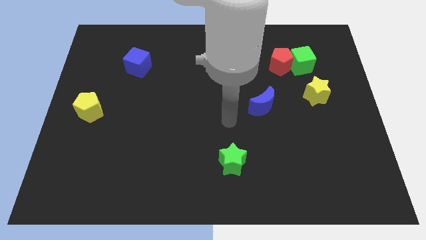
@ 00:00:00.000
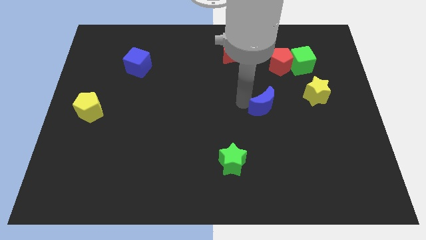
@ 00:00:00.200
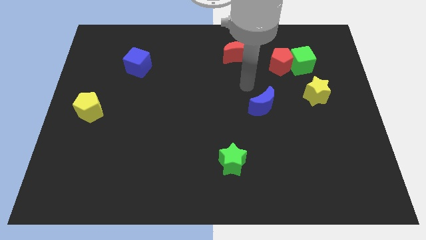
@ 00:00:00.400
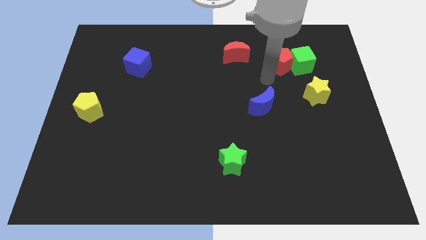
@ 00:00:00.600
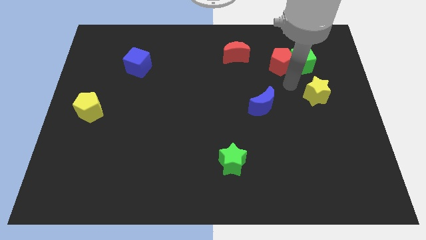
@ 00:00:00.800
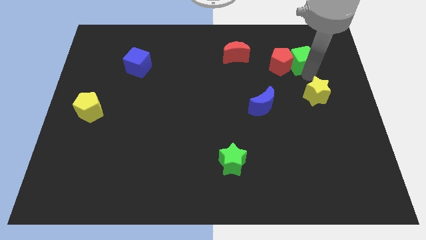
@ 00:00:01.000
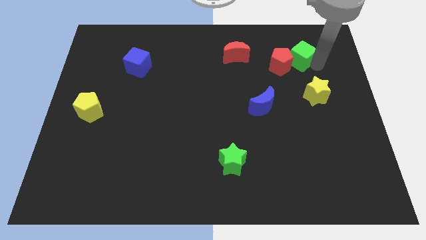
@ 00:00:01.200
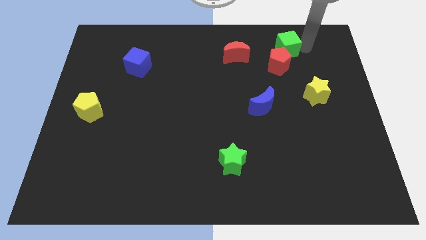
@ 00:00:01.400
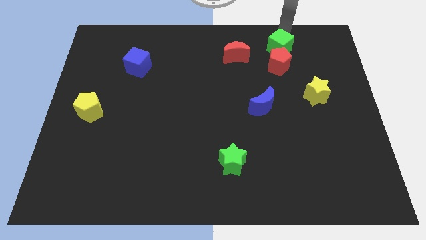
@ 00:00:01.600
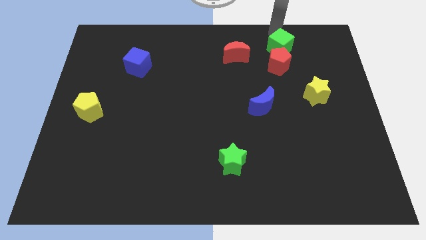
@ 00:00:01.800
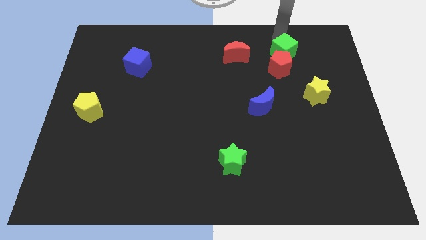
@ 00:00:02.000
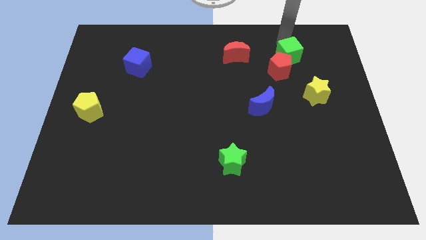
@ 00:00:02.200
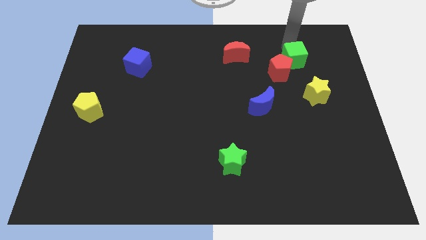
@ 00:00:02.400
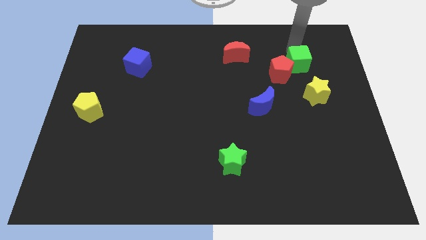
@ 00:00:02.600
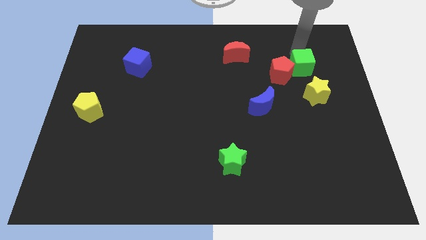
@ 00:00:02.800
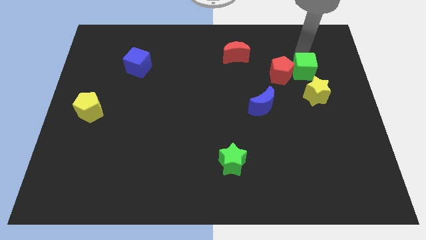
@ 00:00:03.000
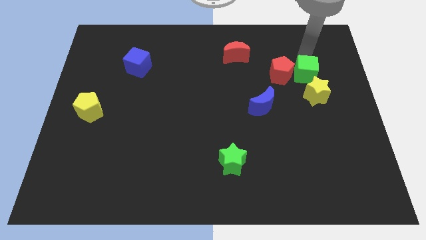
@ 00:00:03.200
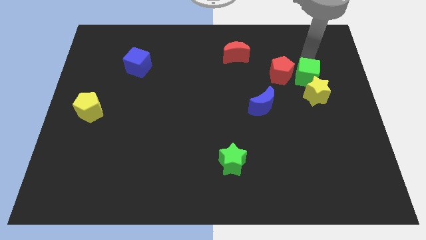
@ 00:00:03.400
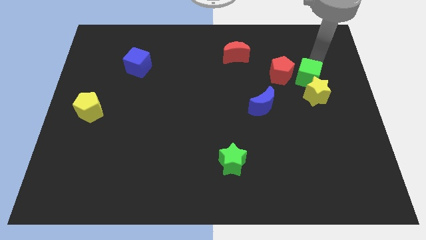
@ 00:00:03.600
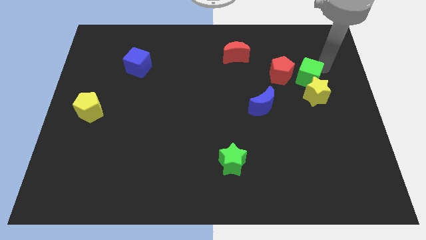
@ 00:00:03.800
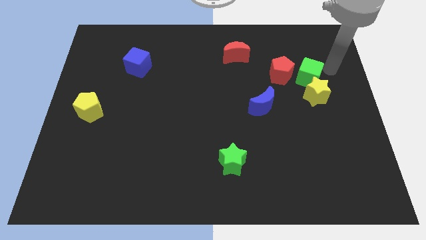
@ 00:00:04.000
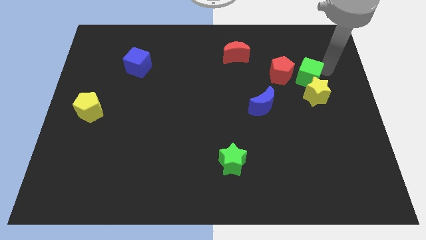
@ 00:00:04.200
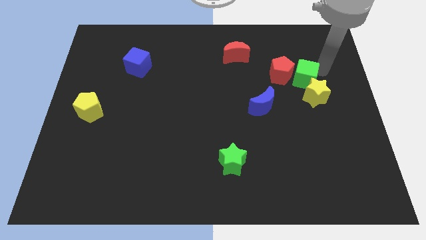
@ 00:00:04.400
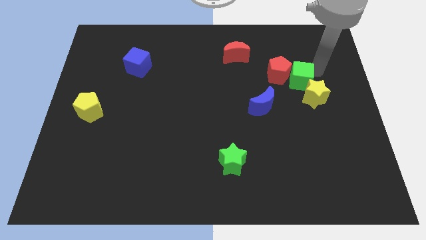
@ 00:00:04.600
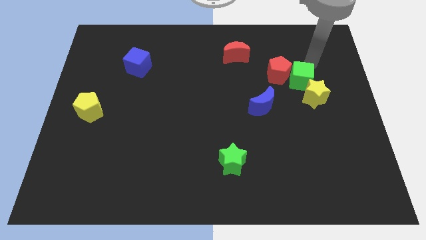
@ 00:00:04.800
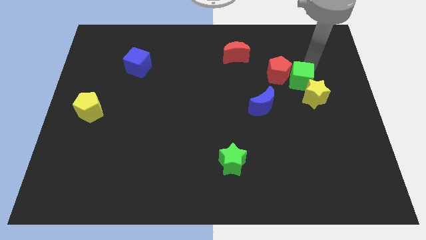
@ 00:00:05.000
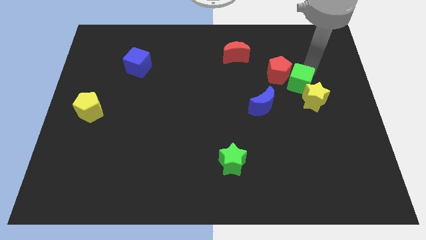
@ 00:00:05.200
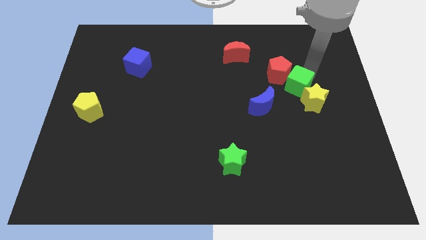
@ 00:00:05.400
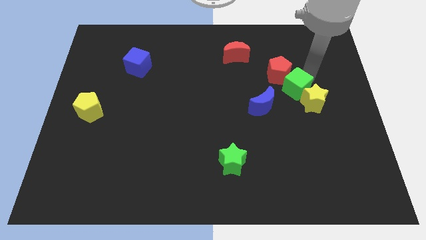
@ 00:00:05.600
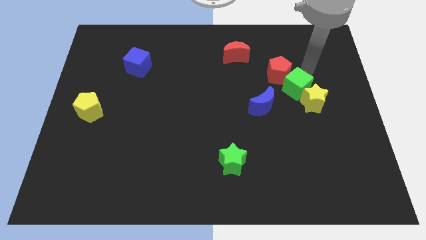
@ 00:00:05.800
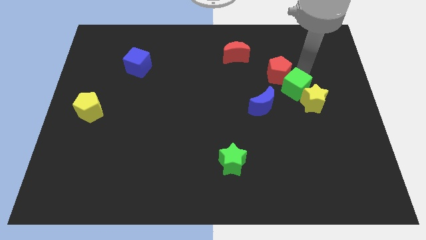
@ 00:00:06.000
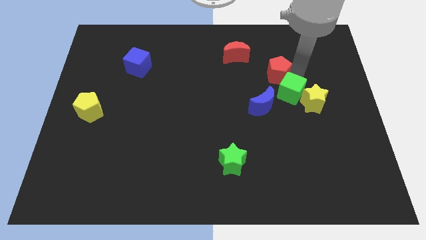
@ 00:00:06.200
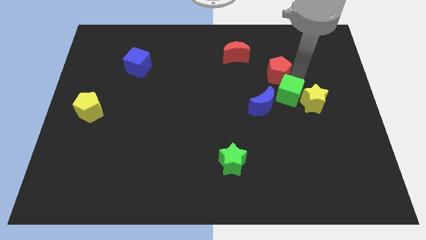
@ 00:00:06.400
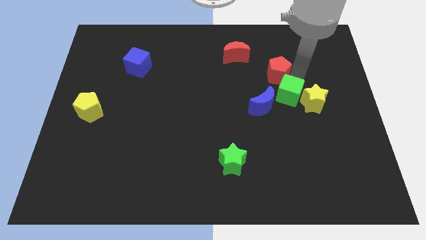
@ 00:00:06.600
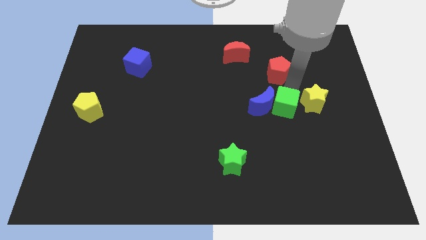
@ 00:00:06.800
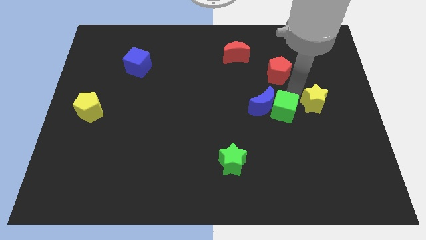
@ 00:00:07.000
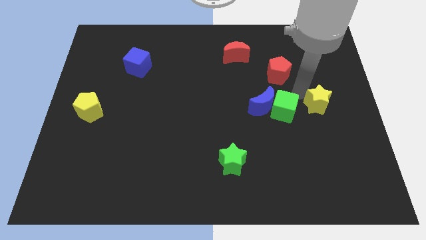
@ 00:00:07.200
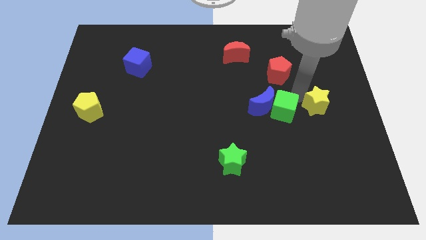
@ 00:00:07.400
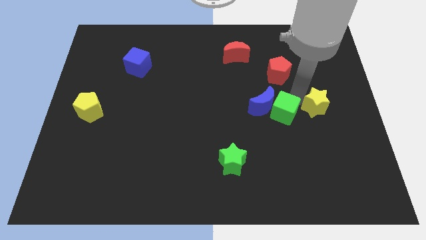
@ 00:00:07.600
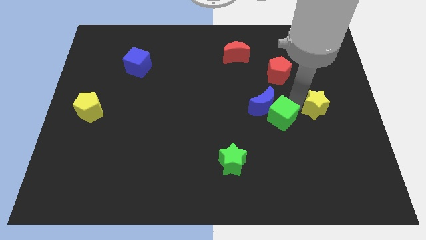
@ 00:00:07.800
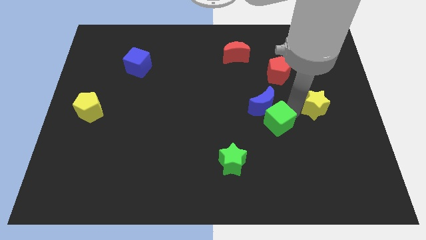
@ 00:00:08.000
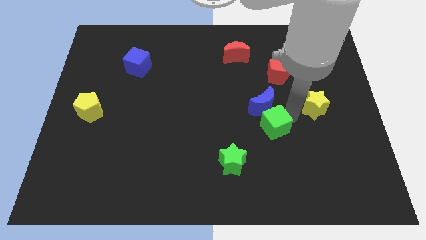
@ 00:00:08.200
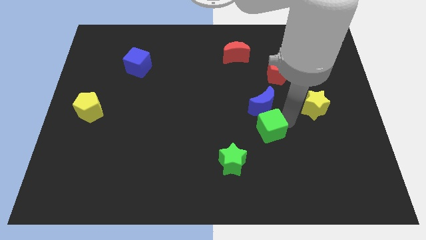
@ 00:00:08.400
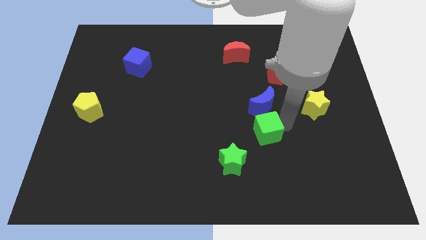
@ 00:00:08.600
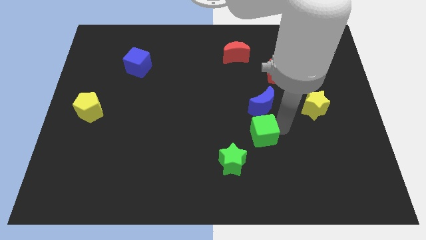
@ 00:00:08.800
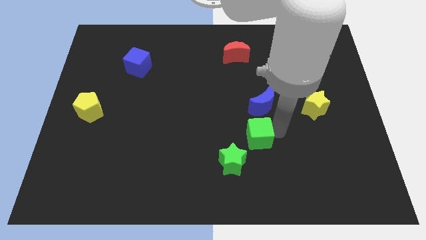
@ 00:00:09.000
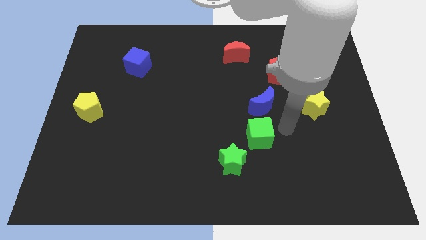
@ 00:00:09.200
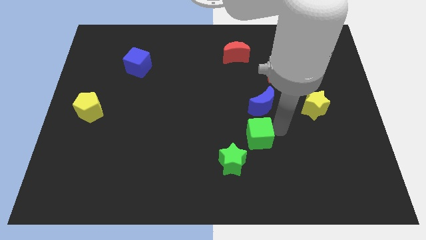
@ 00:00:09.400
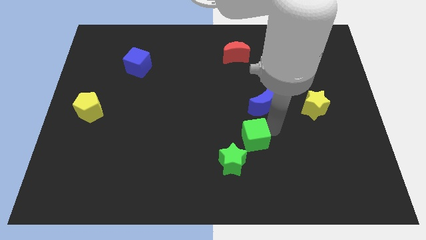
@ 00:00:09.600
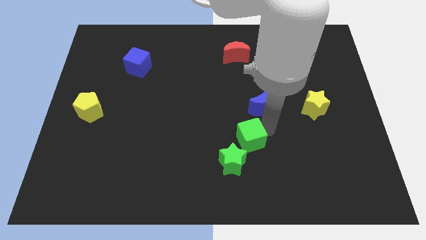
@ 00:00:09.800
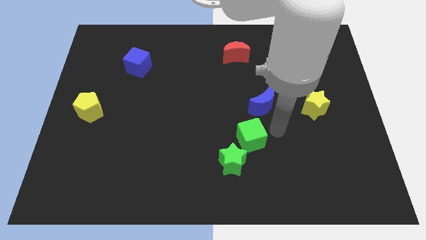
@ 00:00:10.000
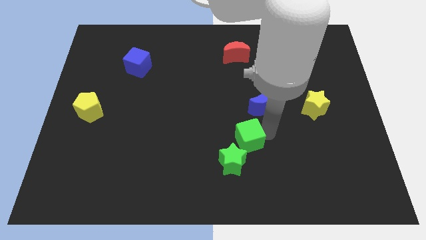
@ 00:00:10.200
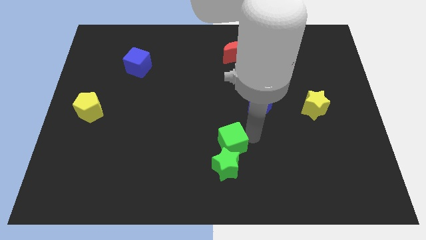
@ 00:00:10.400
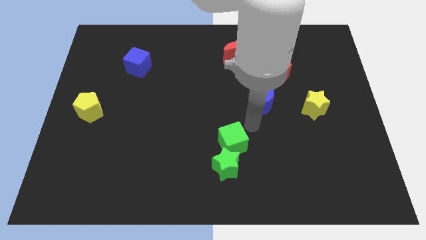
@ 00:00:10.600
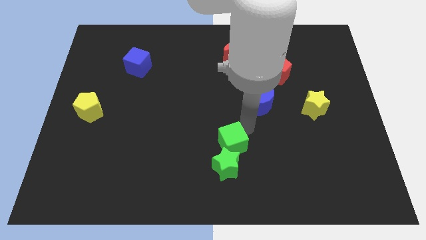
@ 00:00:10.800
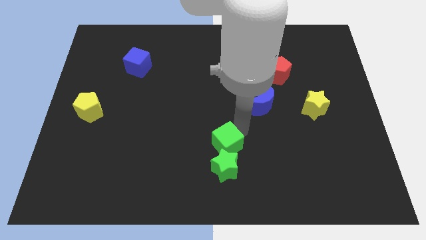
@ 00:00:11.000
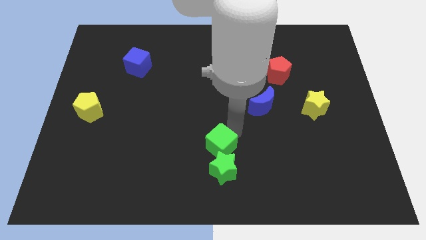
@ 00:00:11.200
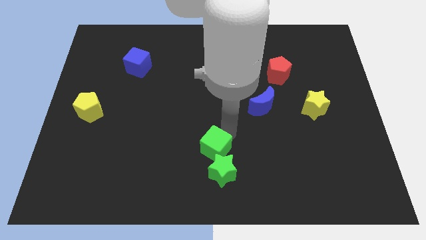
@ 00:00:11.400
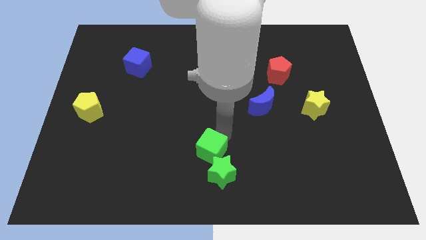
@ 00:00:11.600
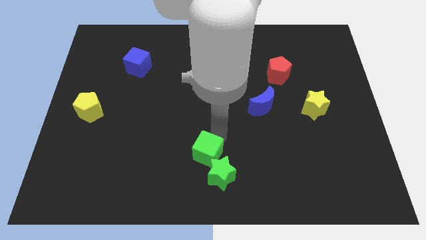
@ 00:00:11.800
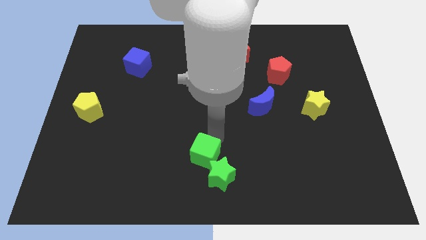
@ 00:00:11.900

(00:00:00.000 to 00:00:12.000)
push the green cube to the bottom
